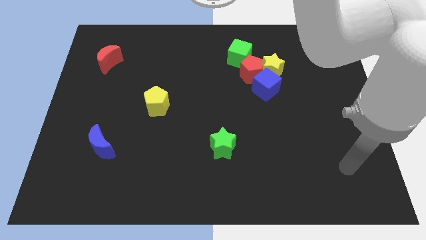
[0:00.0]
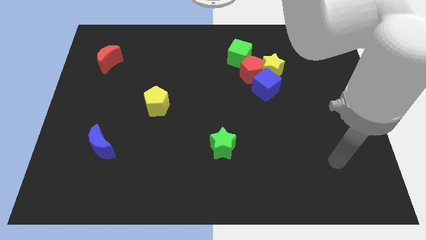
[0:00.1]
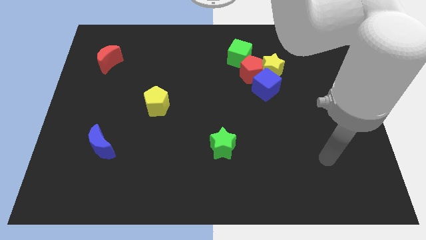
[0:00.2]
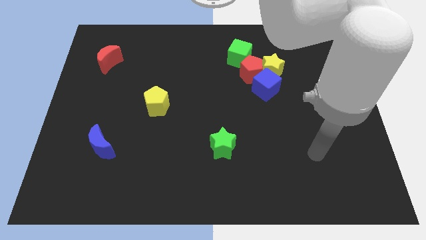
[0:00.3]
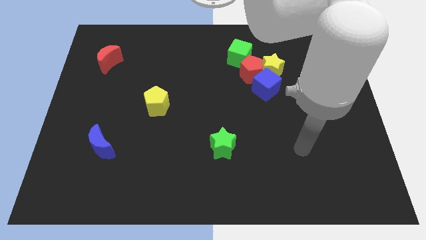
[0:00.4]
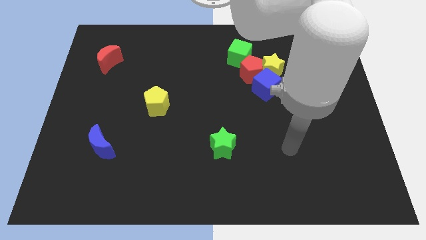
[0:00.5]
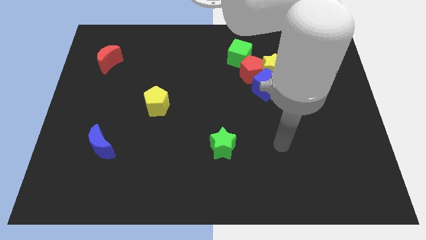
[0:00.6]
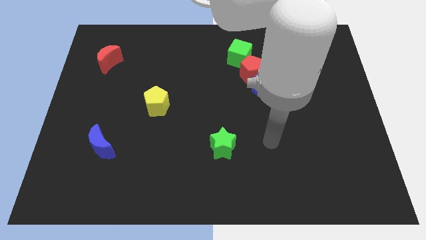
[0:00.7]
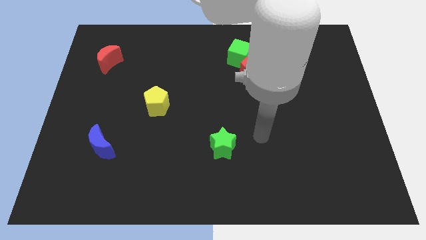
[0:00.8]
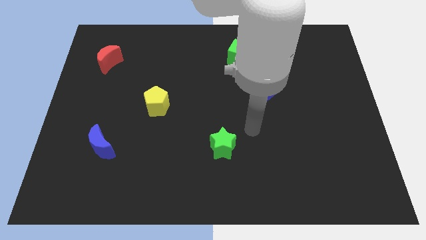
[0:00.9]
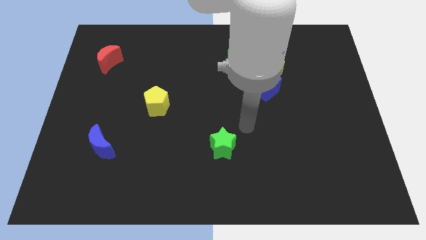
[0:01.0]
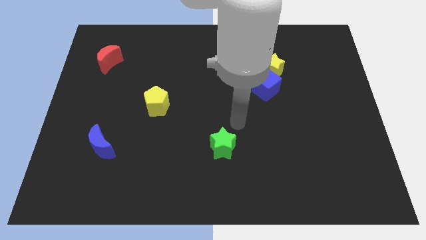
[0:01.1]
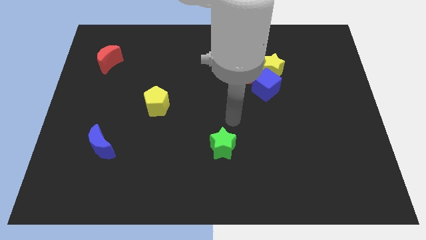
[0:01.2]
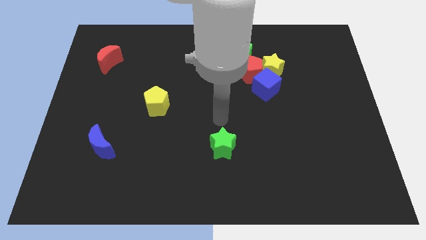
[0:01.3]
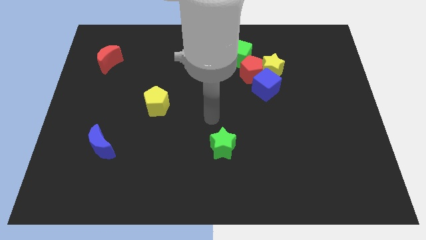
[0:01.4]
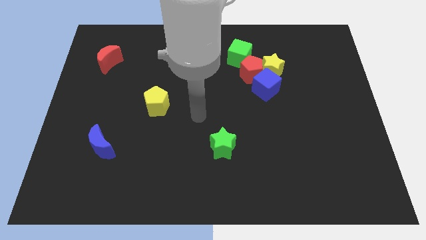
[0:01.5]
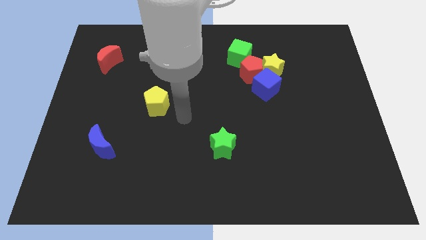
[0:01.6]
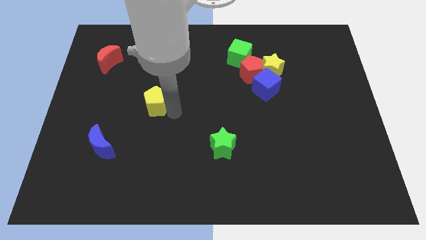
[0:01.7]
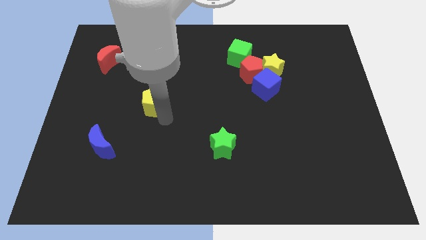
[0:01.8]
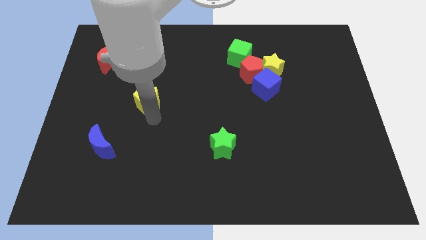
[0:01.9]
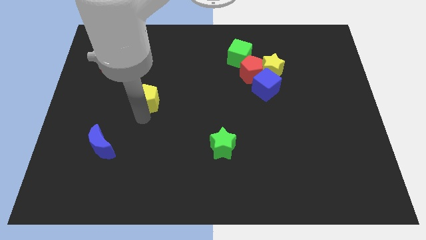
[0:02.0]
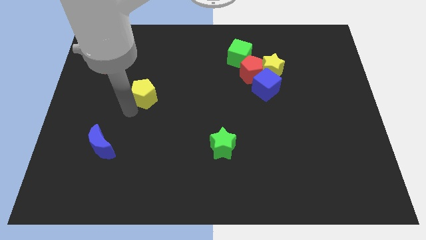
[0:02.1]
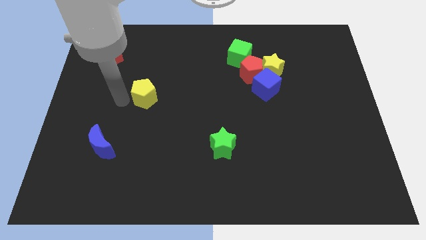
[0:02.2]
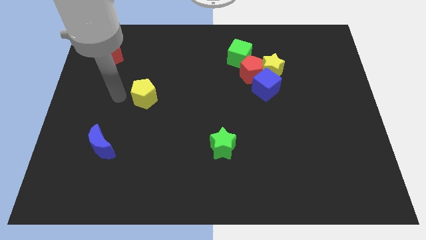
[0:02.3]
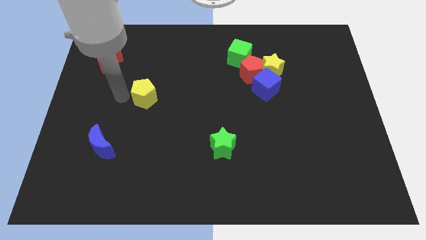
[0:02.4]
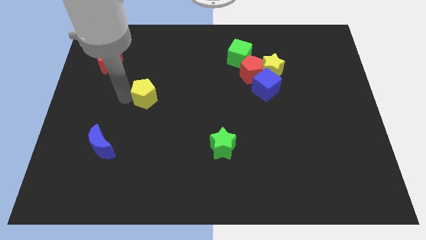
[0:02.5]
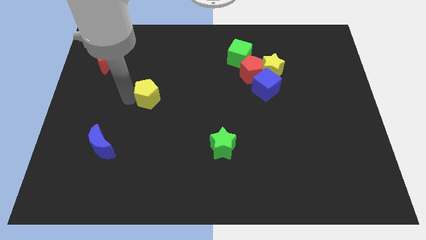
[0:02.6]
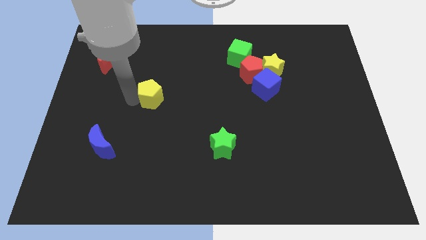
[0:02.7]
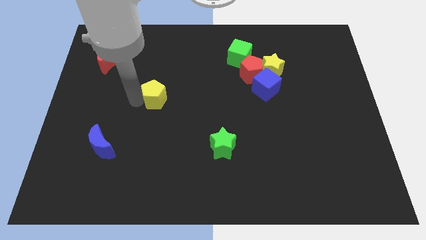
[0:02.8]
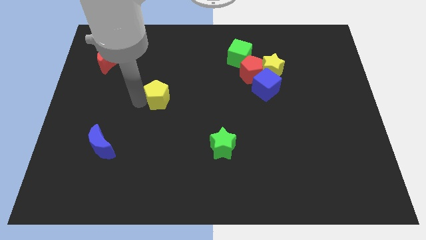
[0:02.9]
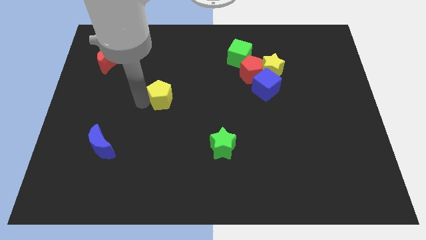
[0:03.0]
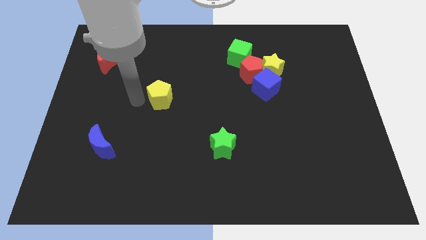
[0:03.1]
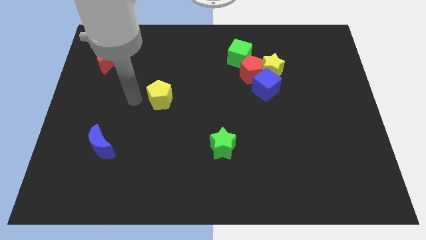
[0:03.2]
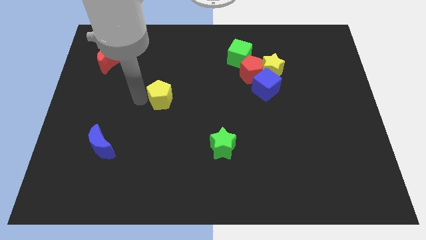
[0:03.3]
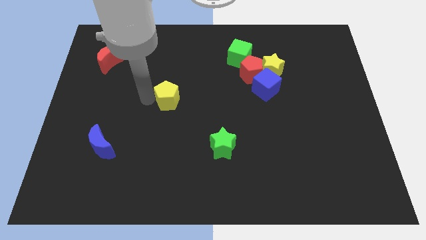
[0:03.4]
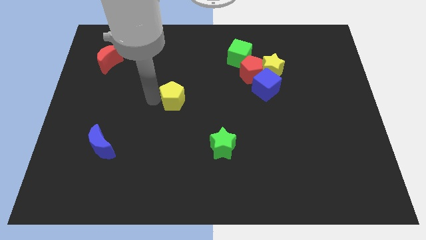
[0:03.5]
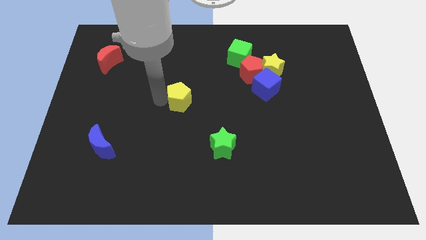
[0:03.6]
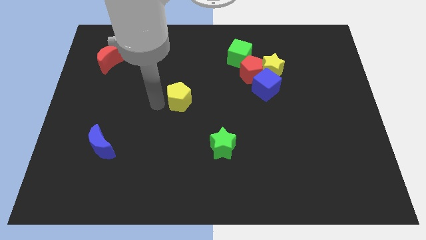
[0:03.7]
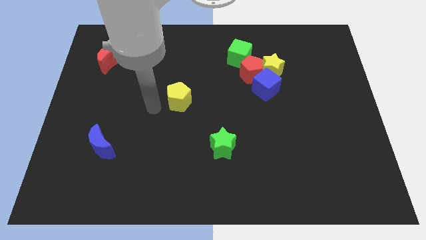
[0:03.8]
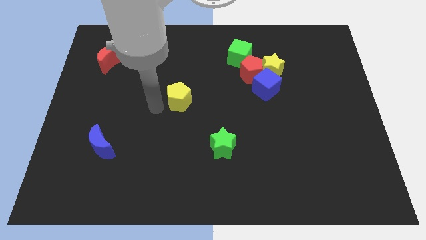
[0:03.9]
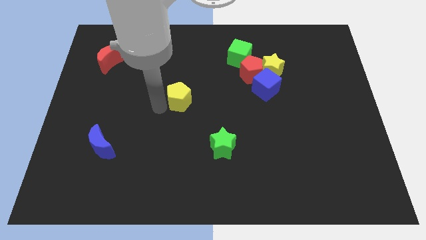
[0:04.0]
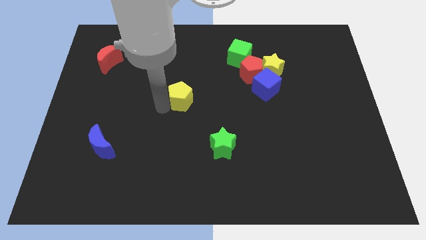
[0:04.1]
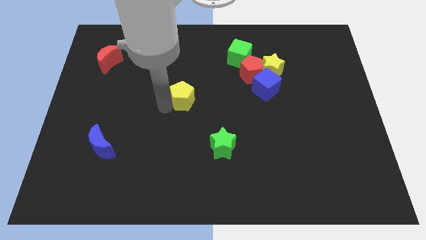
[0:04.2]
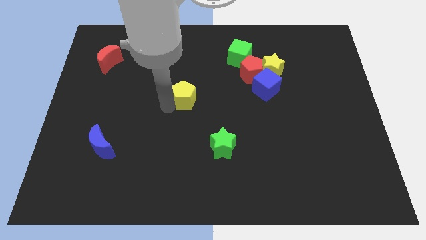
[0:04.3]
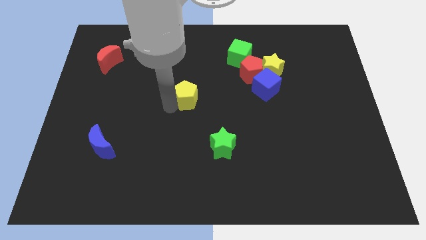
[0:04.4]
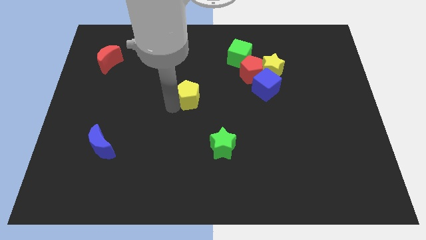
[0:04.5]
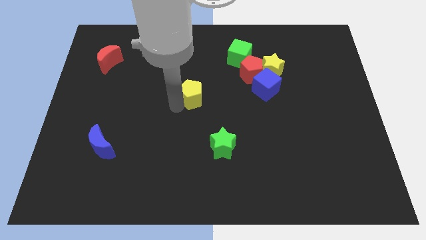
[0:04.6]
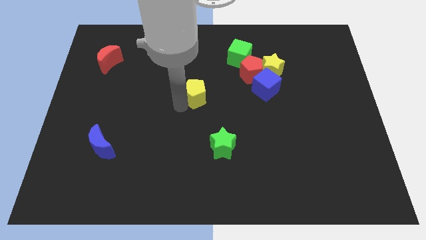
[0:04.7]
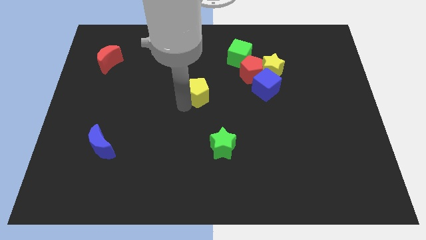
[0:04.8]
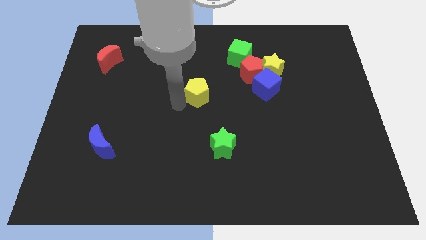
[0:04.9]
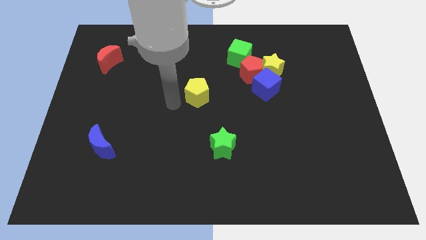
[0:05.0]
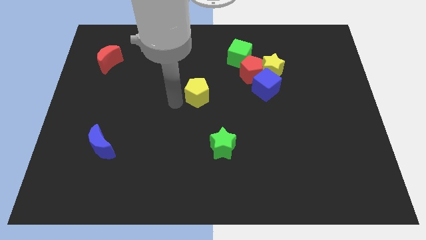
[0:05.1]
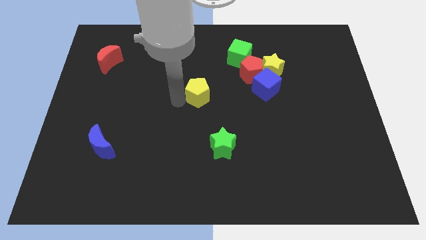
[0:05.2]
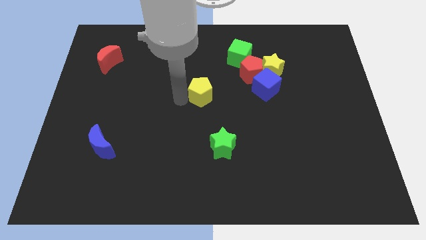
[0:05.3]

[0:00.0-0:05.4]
slide the yellow pentagon left of the blue cube

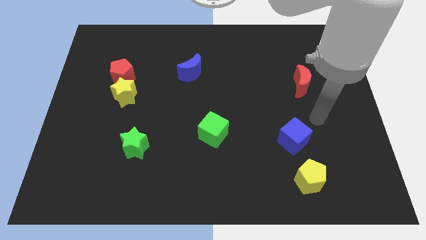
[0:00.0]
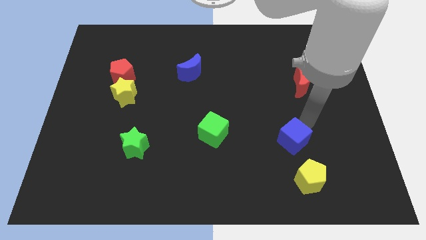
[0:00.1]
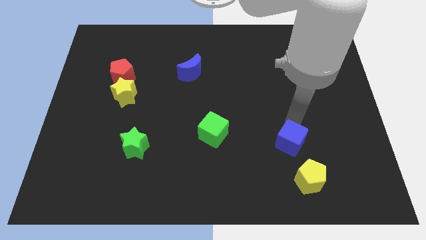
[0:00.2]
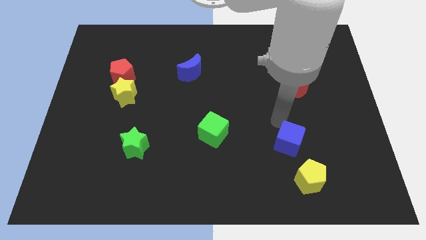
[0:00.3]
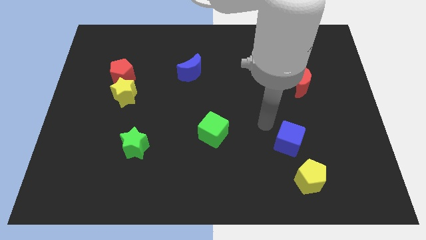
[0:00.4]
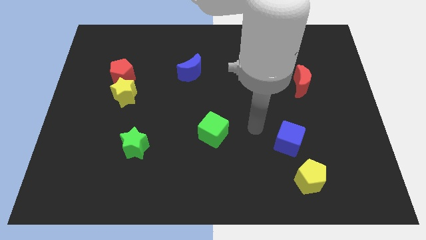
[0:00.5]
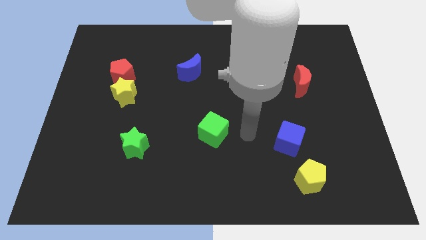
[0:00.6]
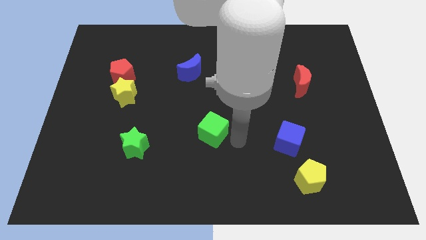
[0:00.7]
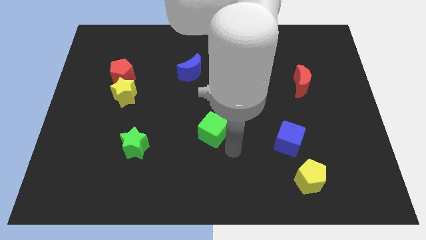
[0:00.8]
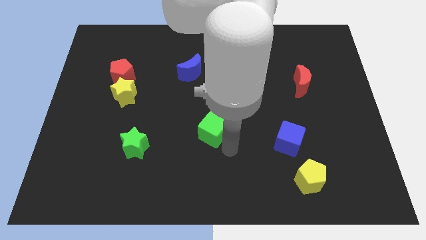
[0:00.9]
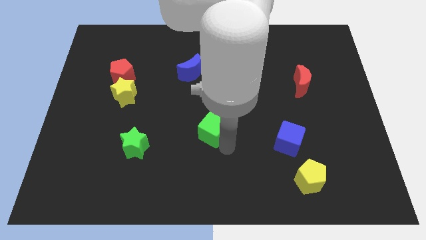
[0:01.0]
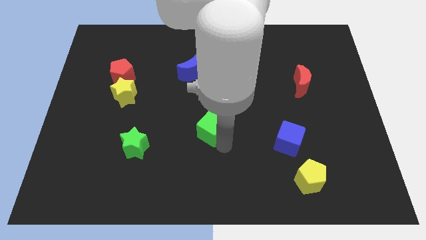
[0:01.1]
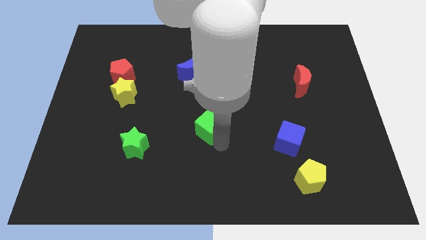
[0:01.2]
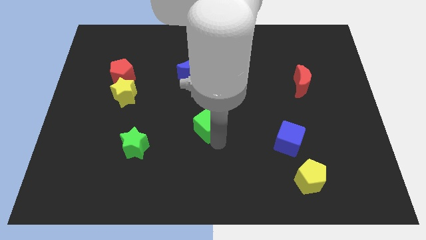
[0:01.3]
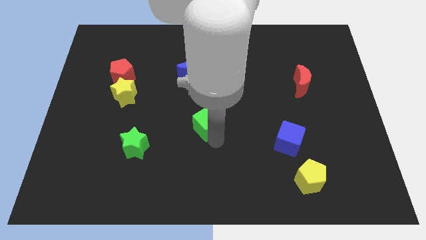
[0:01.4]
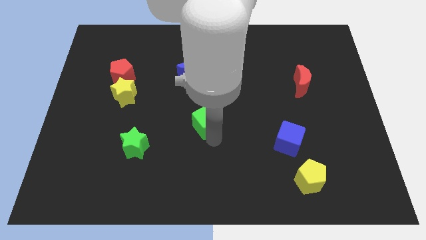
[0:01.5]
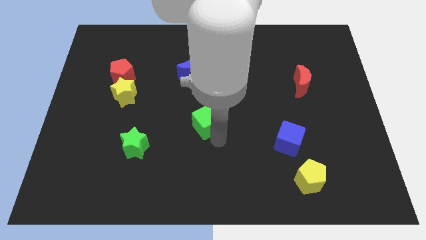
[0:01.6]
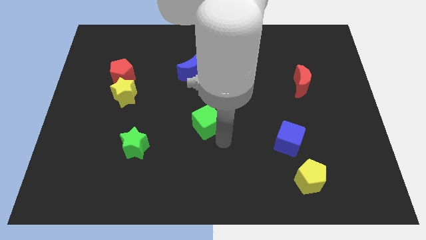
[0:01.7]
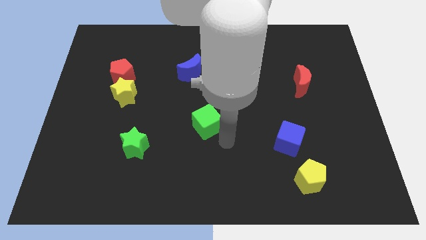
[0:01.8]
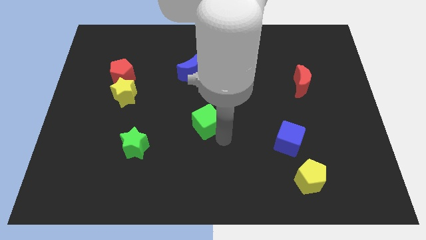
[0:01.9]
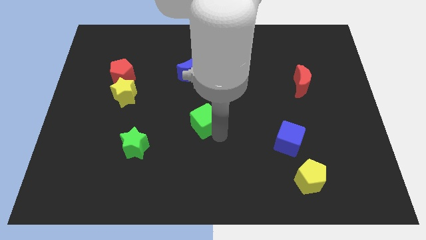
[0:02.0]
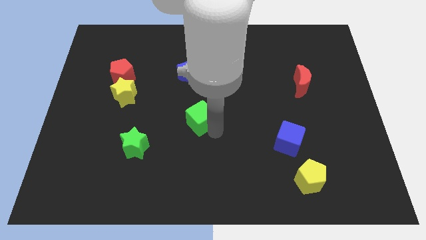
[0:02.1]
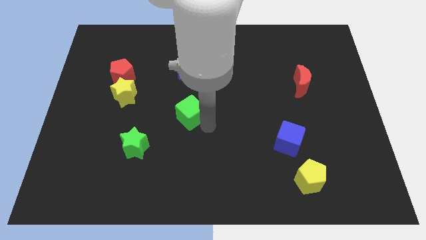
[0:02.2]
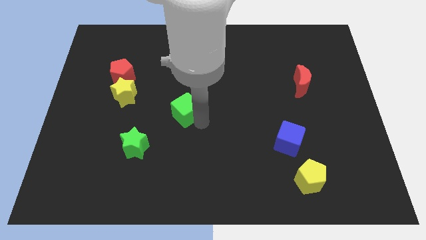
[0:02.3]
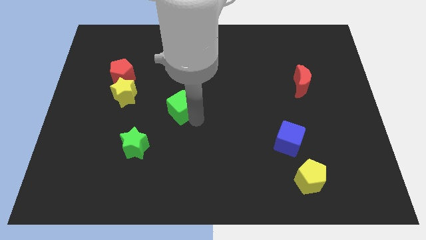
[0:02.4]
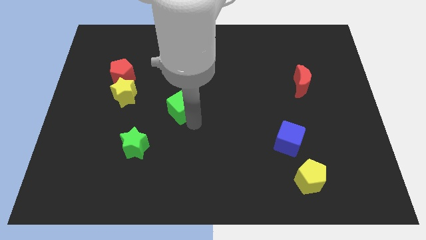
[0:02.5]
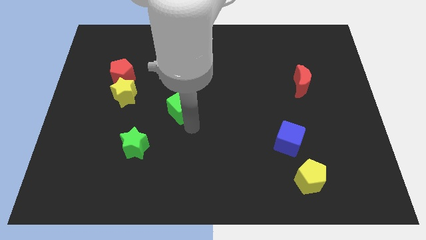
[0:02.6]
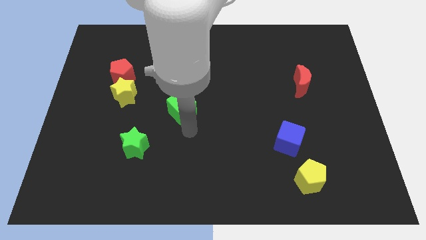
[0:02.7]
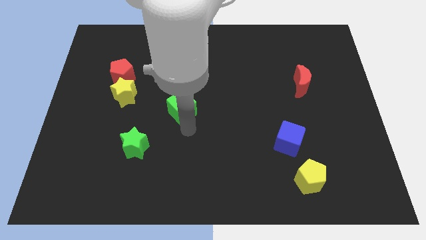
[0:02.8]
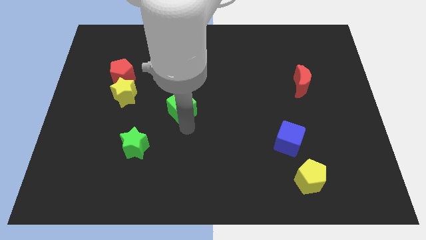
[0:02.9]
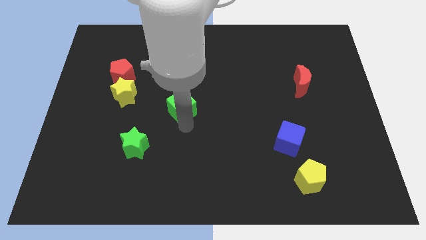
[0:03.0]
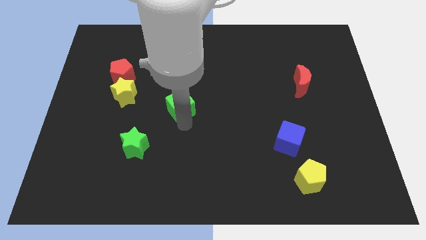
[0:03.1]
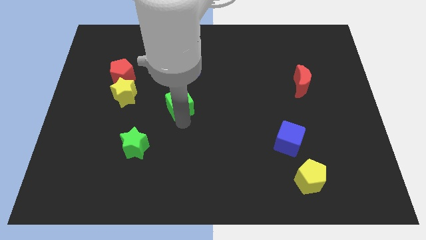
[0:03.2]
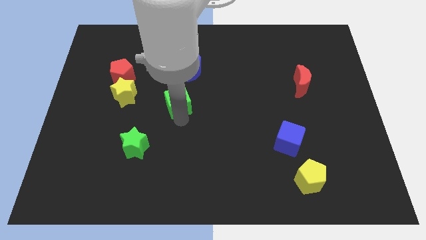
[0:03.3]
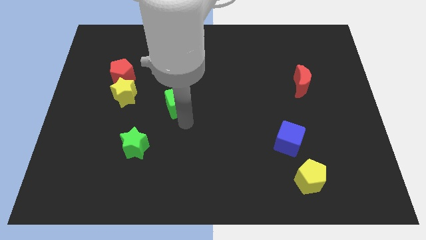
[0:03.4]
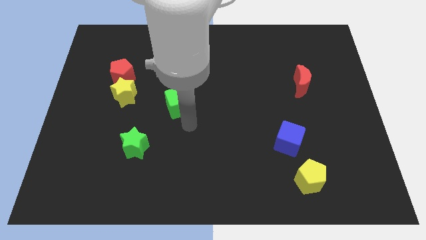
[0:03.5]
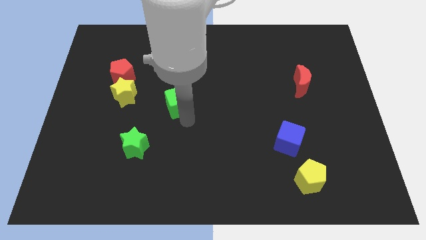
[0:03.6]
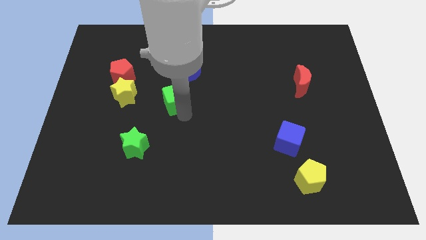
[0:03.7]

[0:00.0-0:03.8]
push the green cube to the bottom left side of the blue moon
